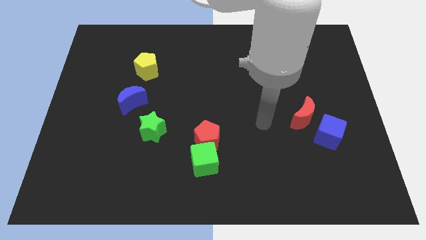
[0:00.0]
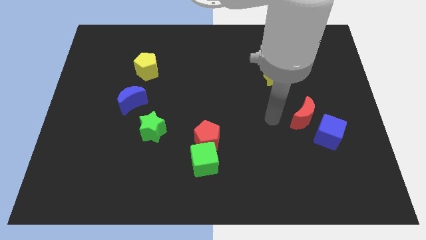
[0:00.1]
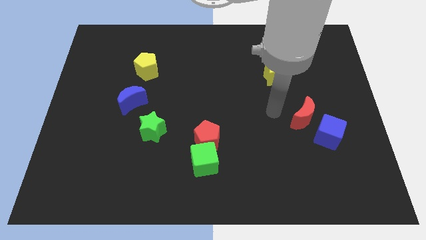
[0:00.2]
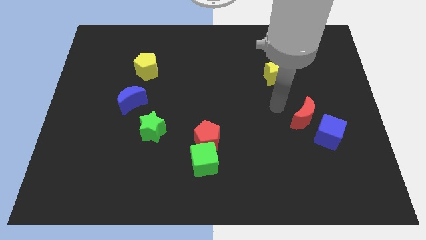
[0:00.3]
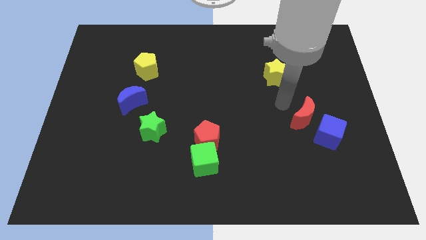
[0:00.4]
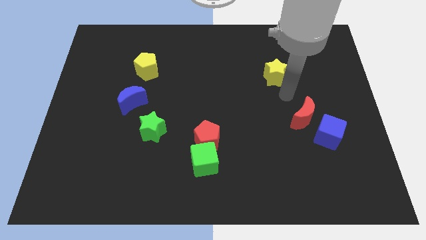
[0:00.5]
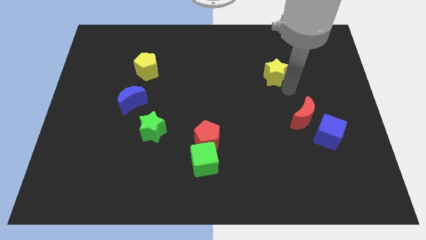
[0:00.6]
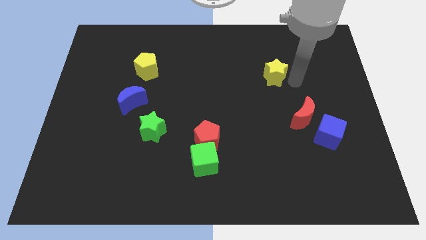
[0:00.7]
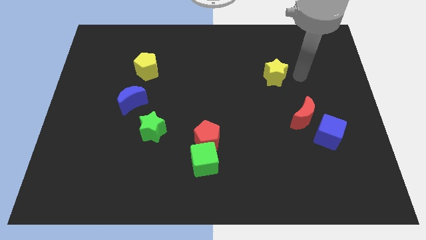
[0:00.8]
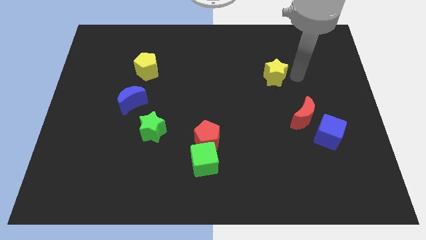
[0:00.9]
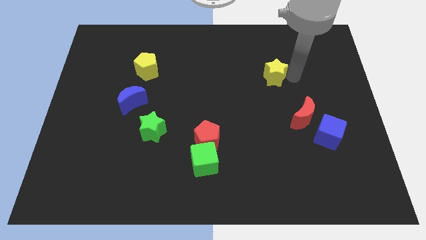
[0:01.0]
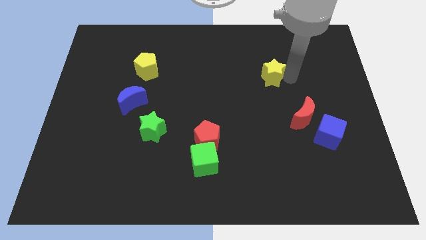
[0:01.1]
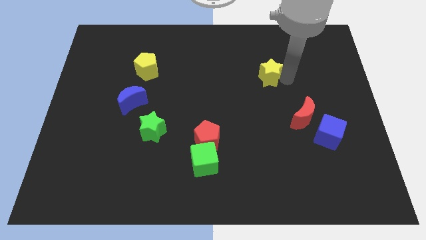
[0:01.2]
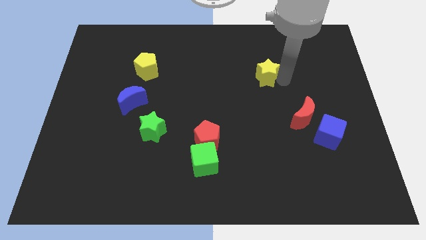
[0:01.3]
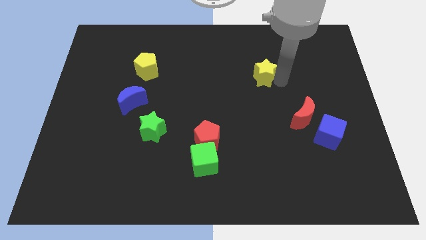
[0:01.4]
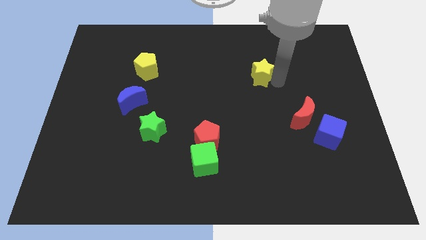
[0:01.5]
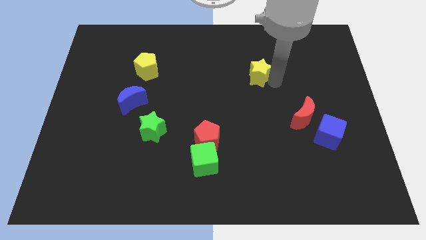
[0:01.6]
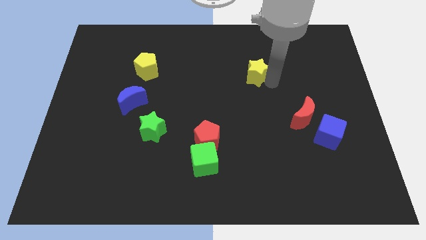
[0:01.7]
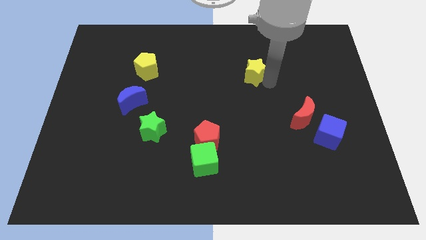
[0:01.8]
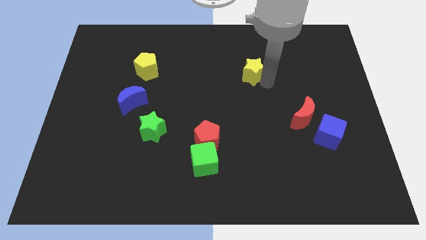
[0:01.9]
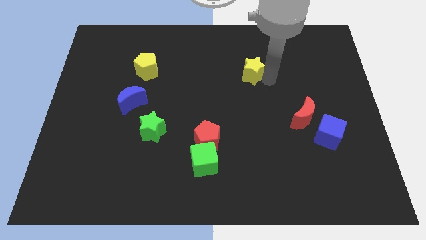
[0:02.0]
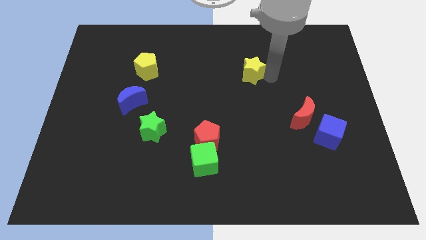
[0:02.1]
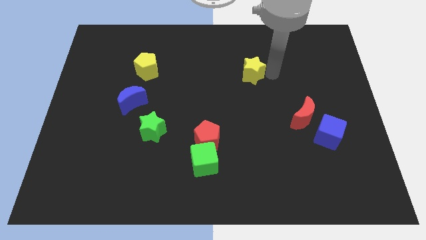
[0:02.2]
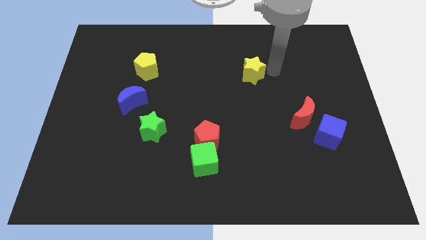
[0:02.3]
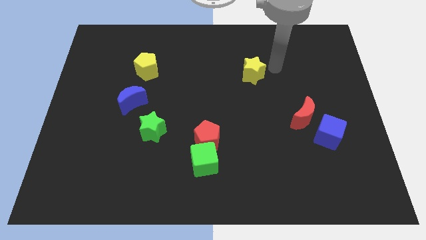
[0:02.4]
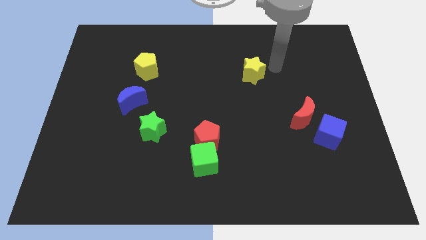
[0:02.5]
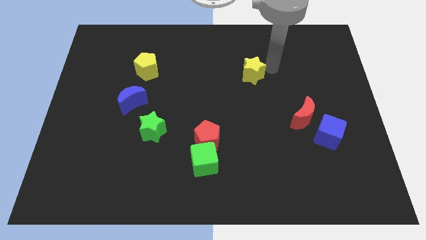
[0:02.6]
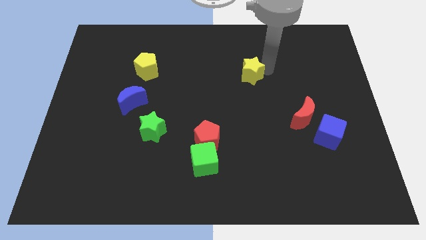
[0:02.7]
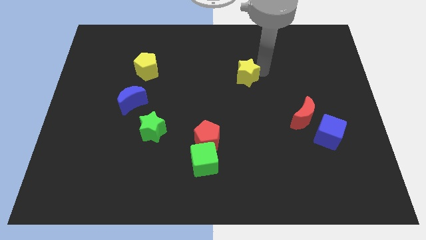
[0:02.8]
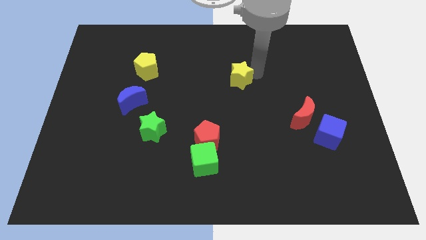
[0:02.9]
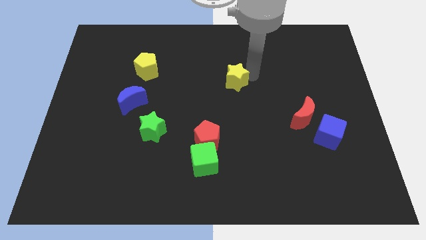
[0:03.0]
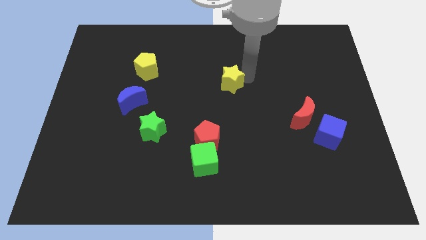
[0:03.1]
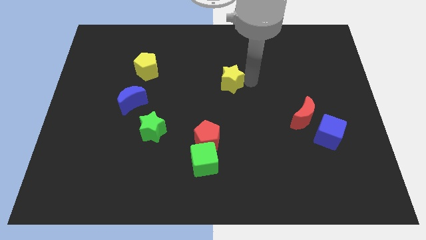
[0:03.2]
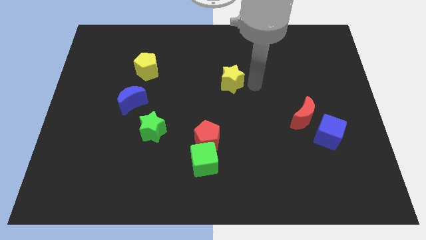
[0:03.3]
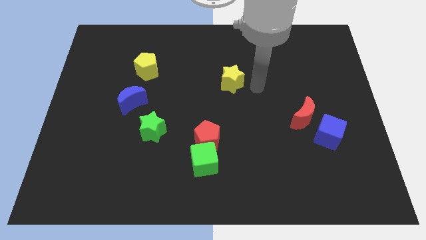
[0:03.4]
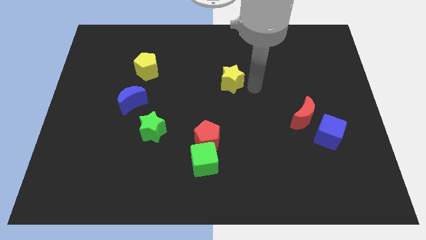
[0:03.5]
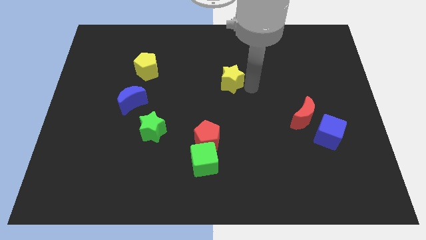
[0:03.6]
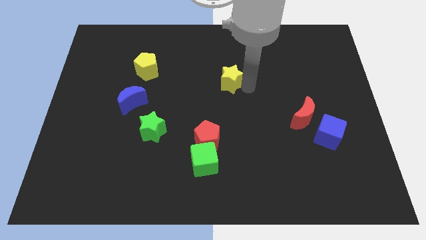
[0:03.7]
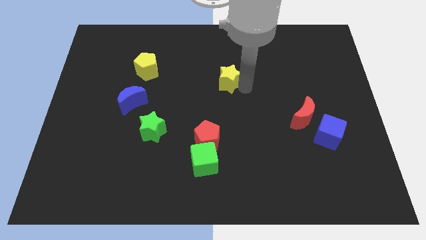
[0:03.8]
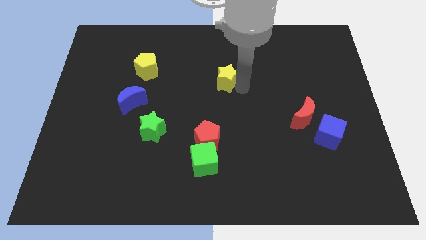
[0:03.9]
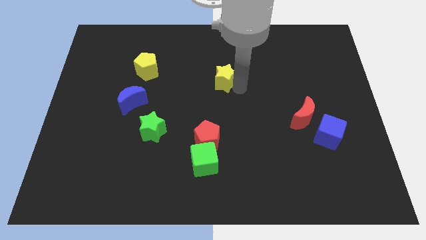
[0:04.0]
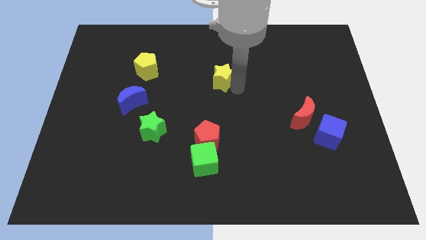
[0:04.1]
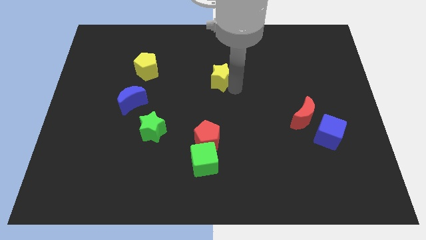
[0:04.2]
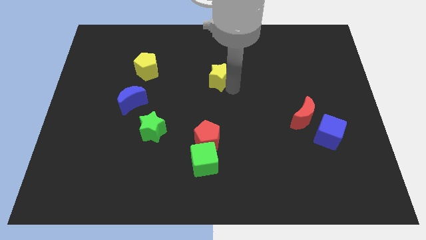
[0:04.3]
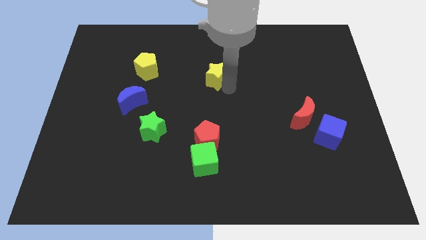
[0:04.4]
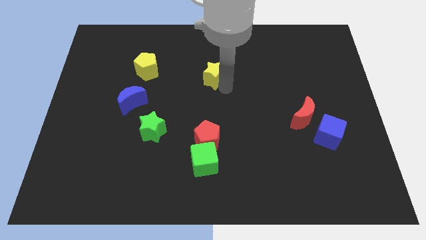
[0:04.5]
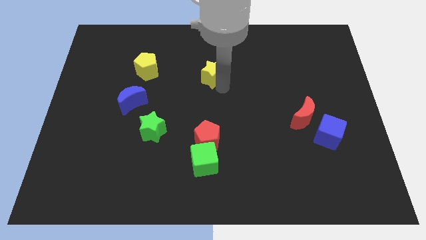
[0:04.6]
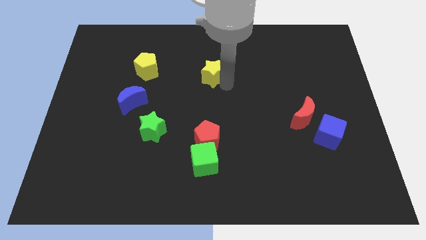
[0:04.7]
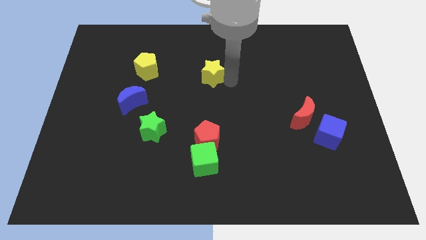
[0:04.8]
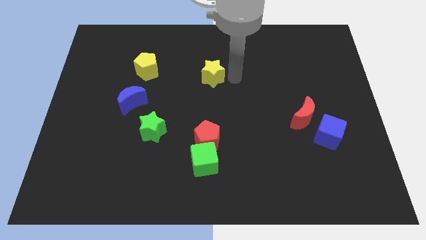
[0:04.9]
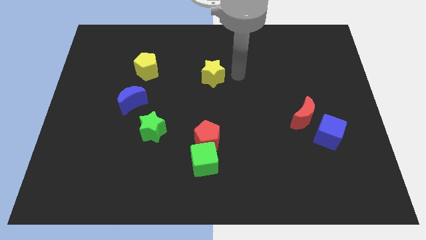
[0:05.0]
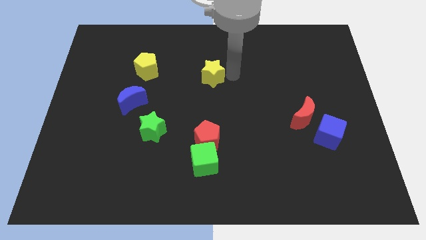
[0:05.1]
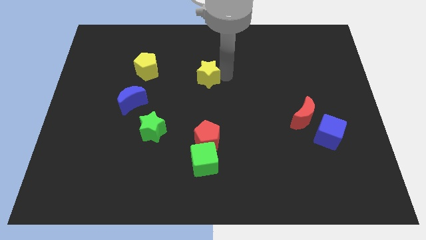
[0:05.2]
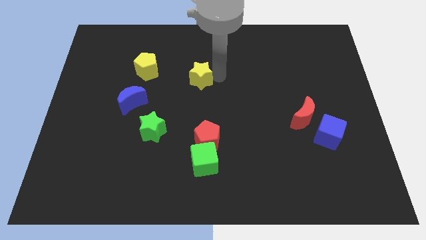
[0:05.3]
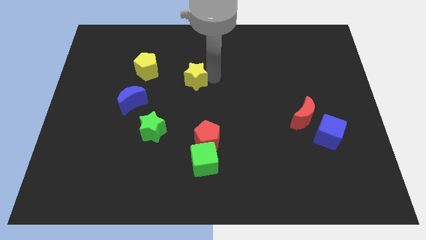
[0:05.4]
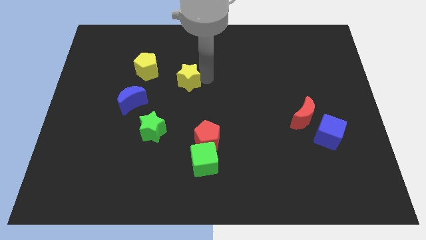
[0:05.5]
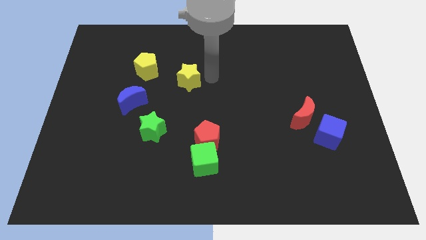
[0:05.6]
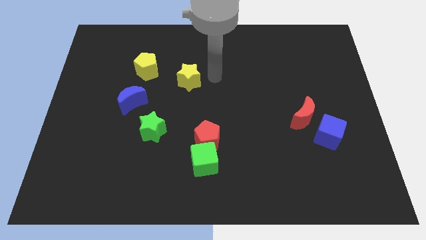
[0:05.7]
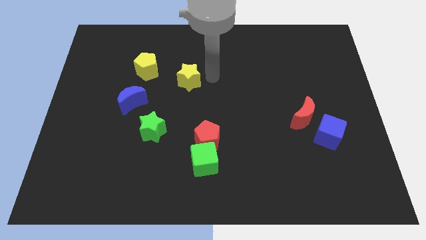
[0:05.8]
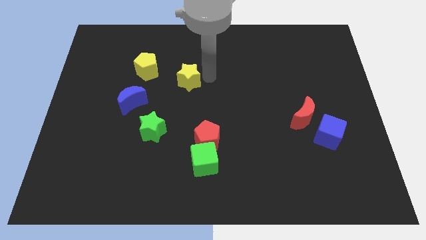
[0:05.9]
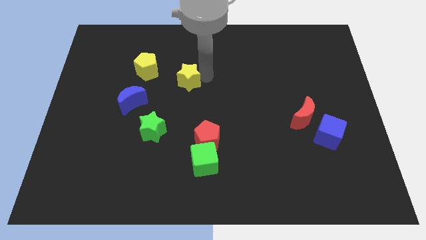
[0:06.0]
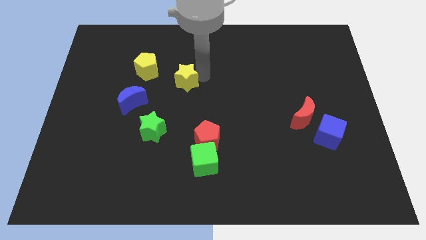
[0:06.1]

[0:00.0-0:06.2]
slide the yellow star diagonally down and to the right of the yellow pentagon

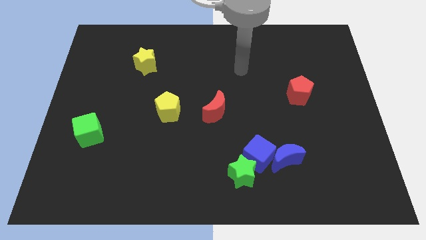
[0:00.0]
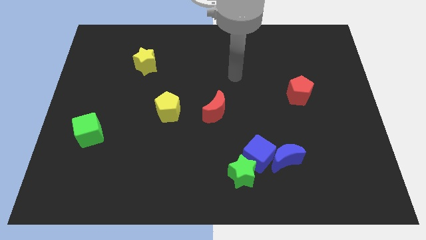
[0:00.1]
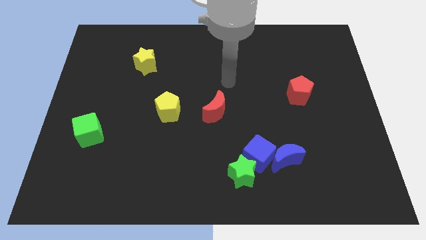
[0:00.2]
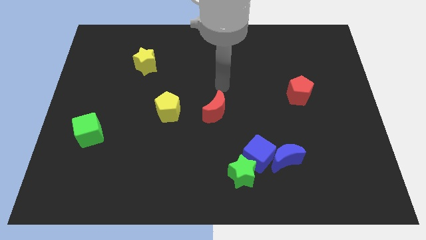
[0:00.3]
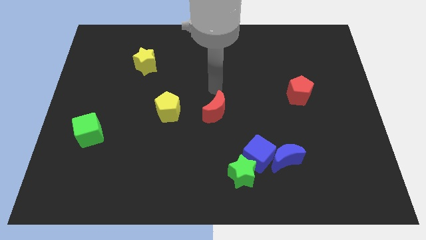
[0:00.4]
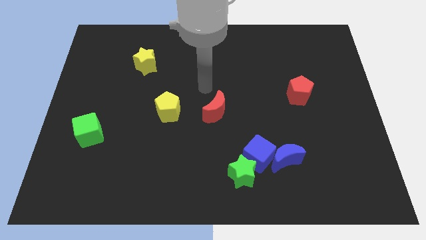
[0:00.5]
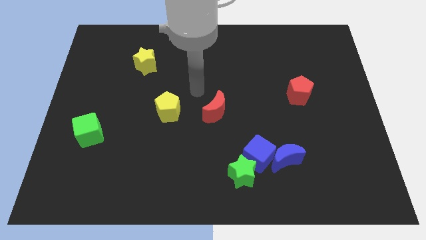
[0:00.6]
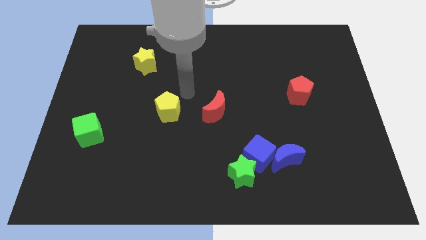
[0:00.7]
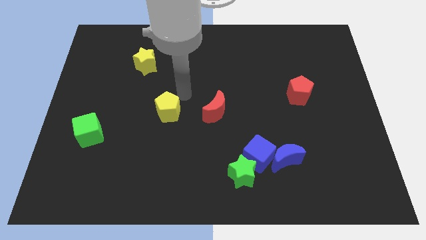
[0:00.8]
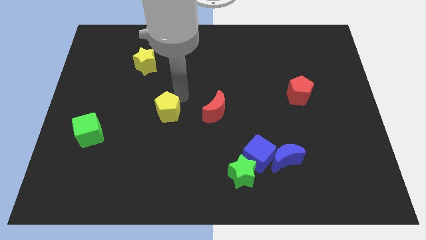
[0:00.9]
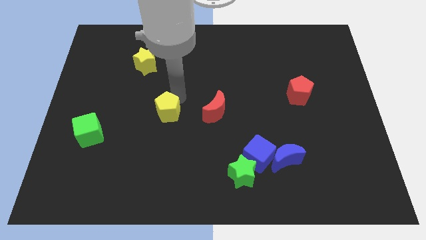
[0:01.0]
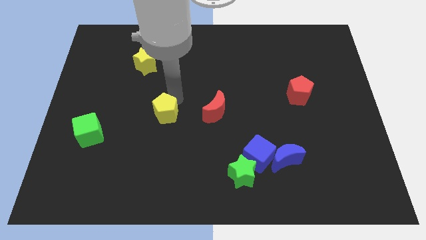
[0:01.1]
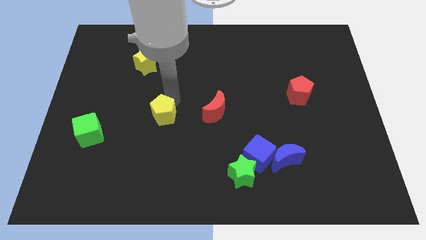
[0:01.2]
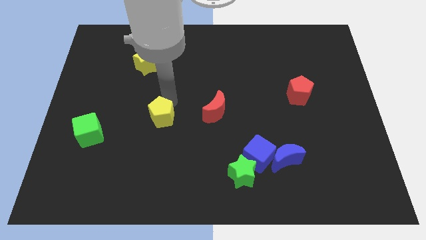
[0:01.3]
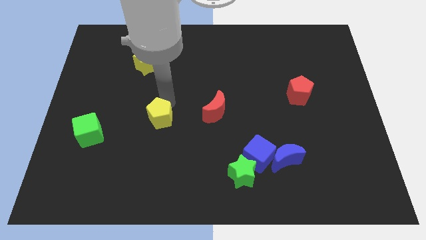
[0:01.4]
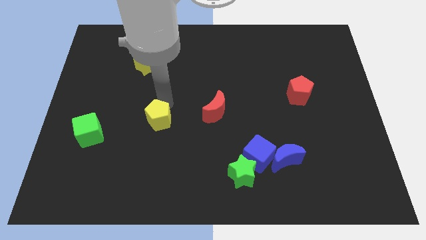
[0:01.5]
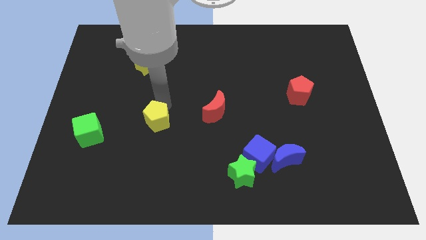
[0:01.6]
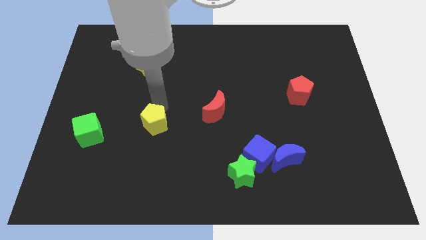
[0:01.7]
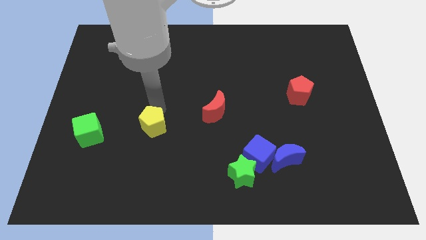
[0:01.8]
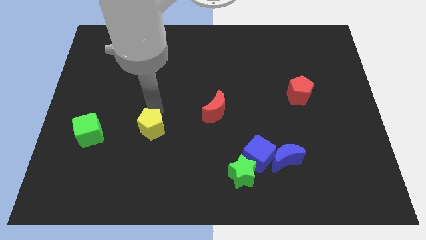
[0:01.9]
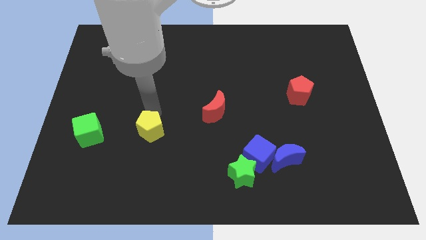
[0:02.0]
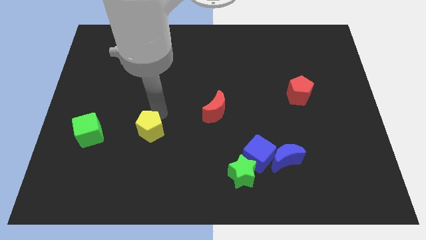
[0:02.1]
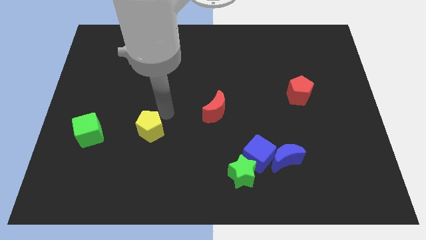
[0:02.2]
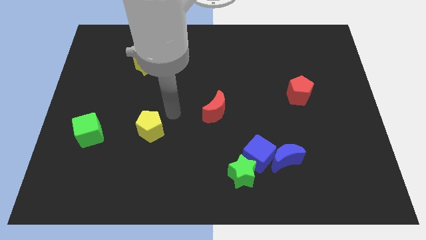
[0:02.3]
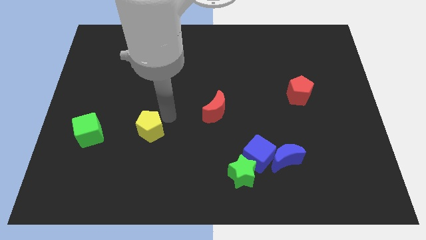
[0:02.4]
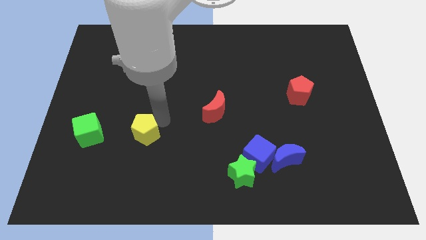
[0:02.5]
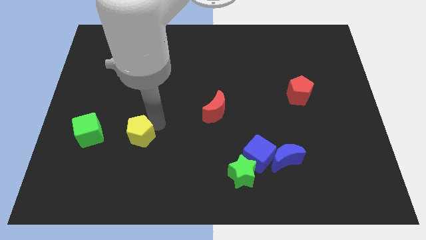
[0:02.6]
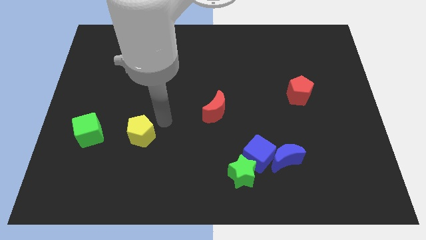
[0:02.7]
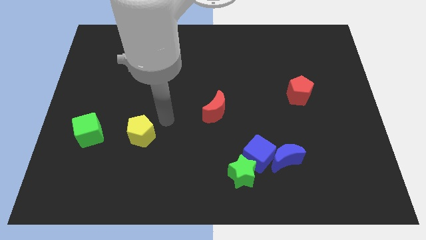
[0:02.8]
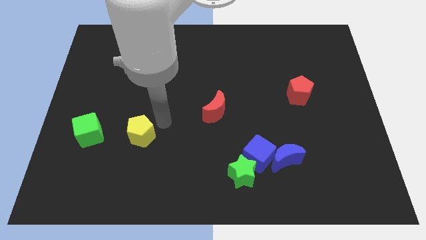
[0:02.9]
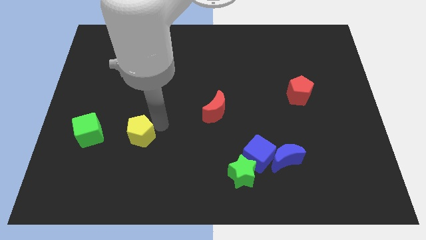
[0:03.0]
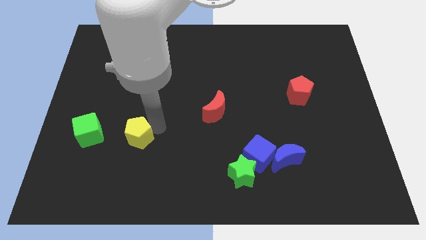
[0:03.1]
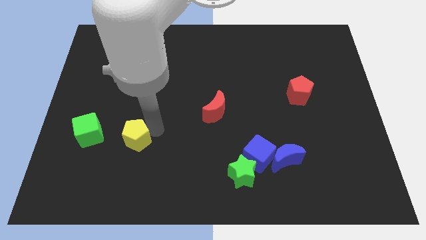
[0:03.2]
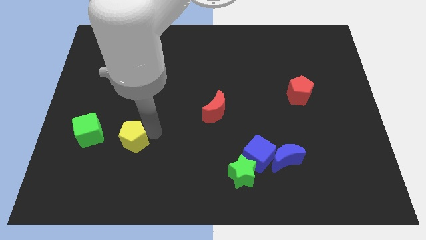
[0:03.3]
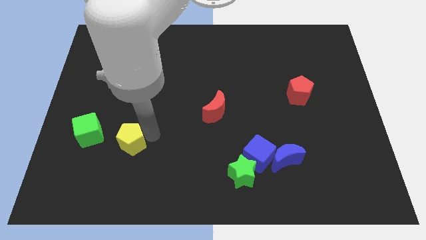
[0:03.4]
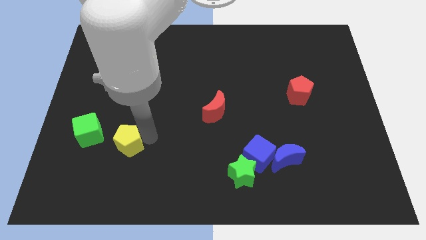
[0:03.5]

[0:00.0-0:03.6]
slide the yellow pentagon diagonally down and to the right of the green cube
